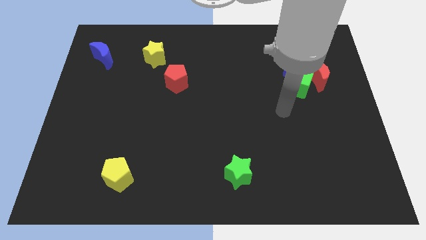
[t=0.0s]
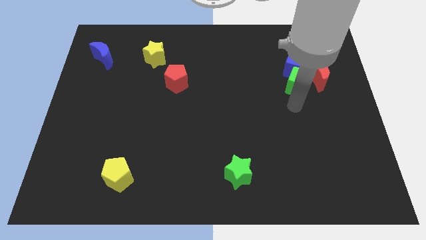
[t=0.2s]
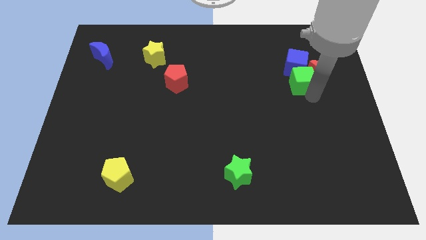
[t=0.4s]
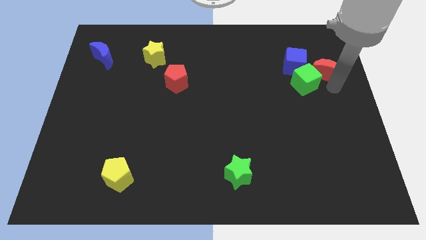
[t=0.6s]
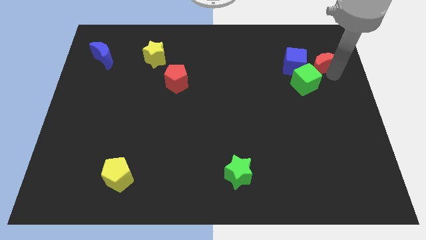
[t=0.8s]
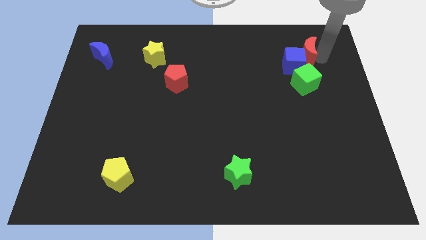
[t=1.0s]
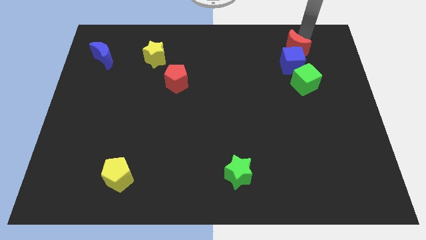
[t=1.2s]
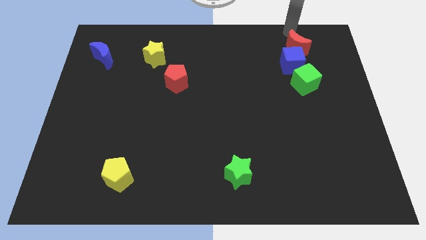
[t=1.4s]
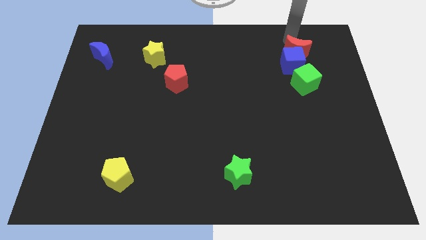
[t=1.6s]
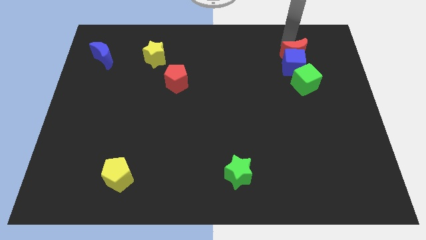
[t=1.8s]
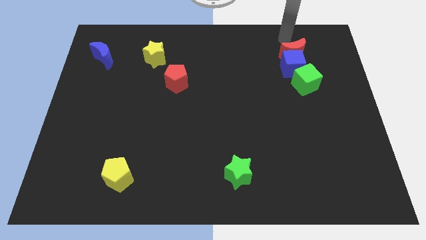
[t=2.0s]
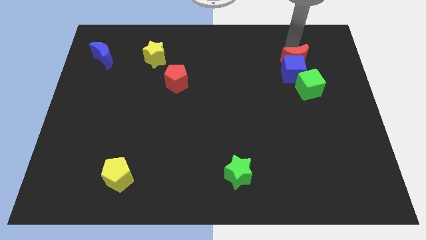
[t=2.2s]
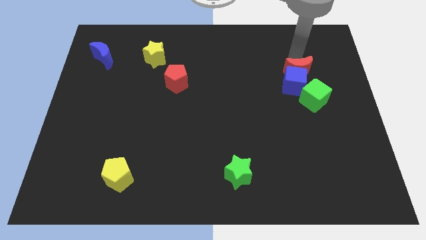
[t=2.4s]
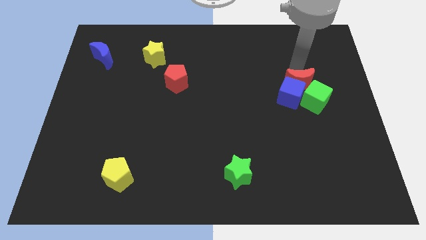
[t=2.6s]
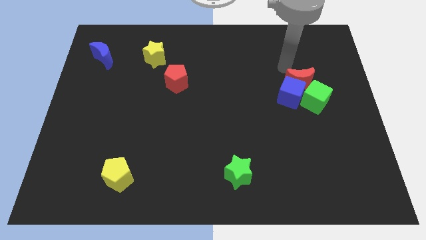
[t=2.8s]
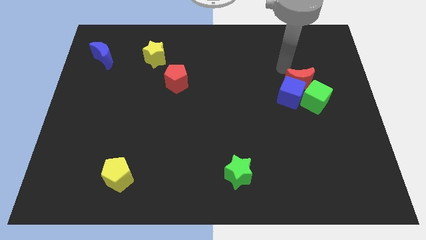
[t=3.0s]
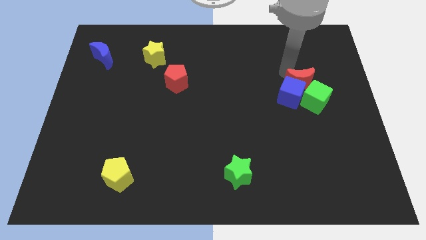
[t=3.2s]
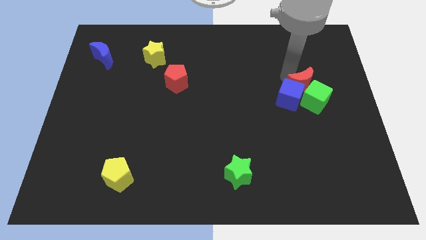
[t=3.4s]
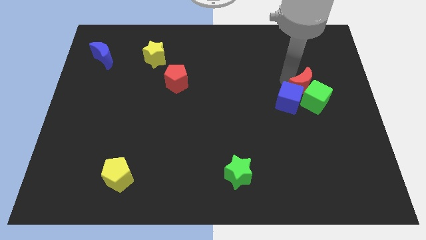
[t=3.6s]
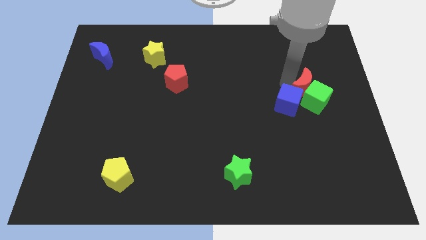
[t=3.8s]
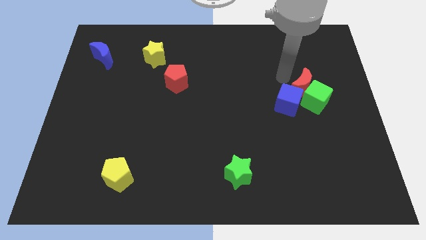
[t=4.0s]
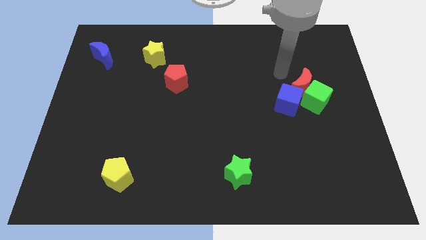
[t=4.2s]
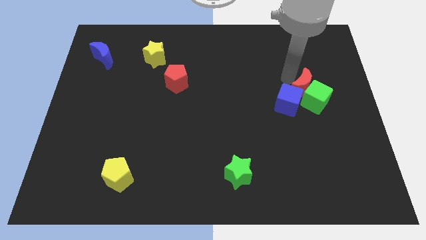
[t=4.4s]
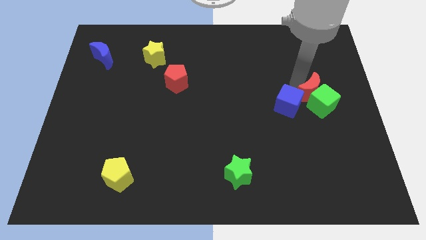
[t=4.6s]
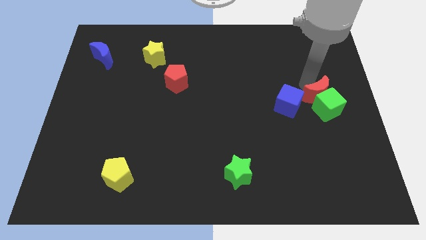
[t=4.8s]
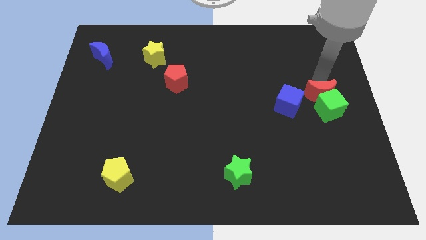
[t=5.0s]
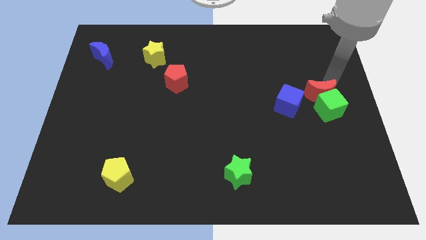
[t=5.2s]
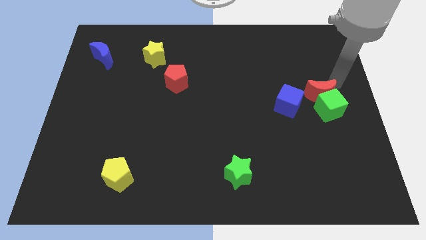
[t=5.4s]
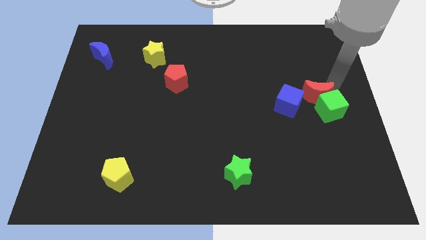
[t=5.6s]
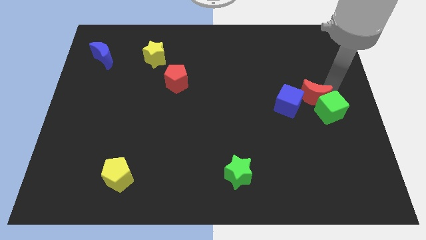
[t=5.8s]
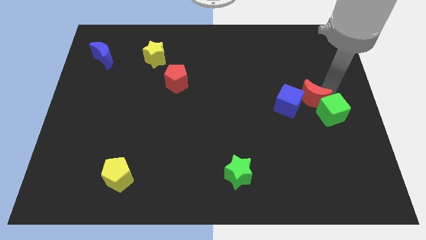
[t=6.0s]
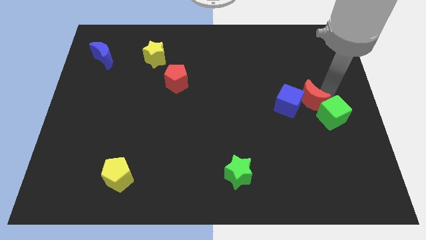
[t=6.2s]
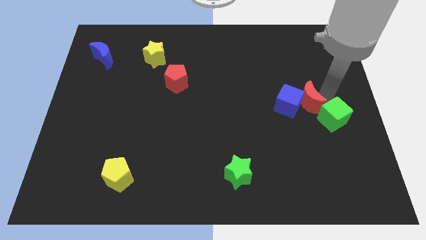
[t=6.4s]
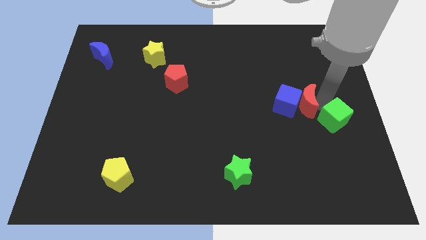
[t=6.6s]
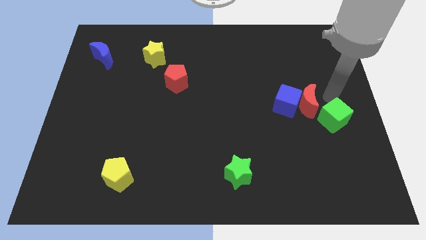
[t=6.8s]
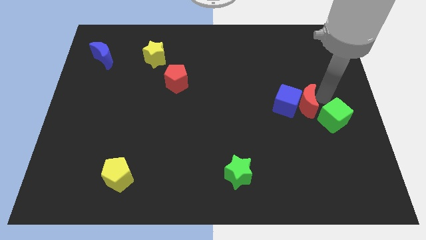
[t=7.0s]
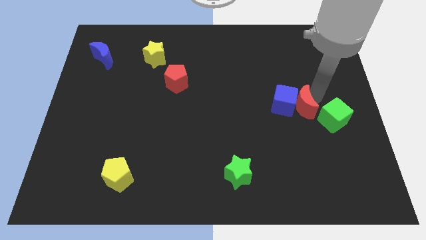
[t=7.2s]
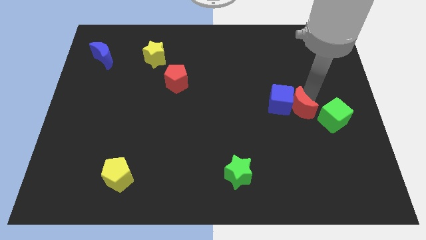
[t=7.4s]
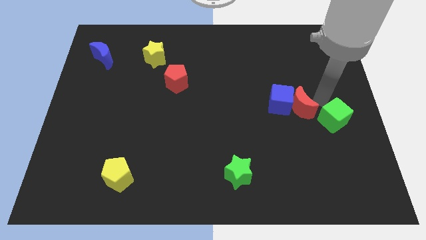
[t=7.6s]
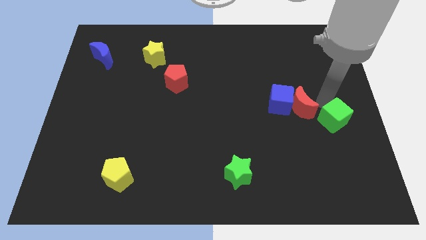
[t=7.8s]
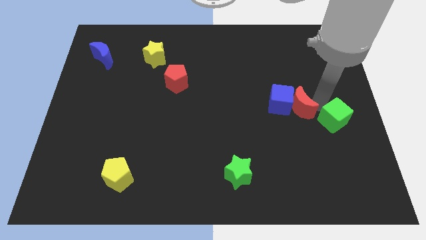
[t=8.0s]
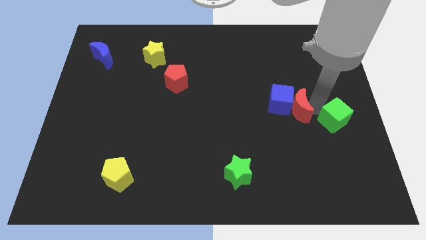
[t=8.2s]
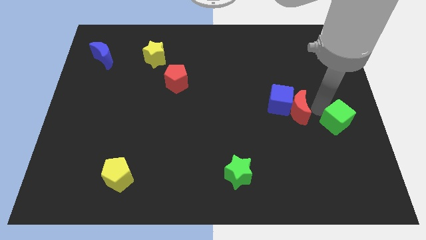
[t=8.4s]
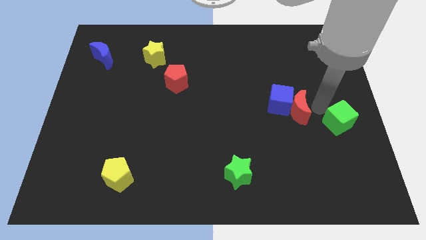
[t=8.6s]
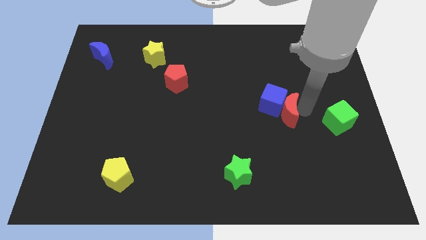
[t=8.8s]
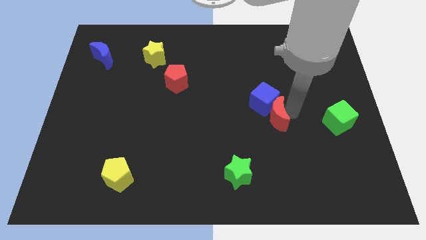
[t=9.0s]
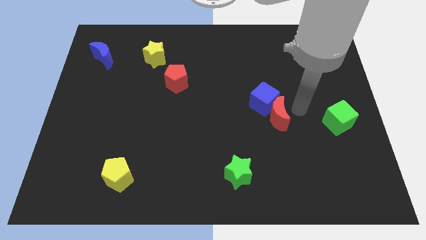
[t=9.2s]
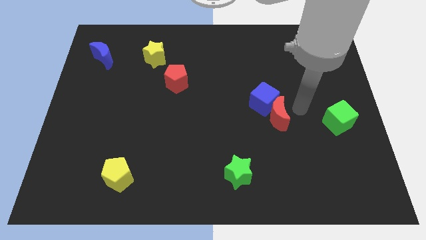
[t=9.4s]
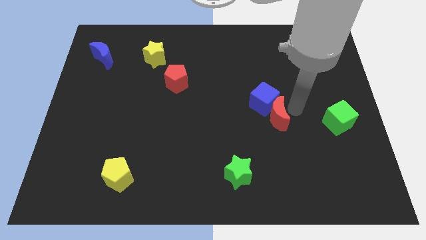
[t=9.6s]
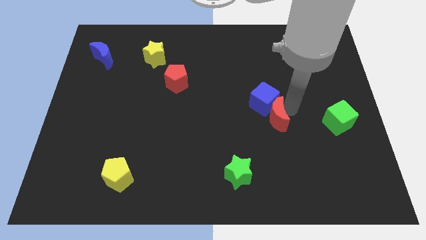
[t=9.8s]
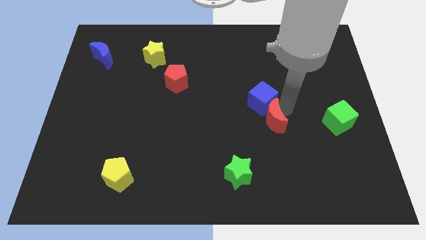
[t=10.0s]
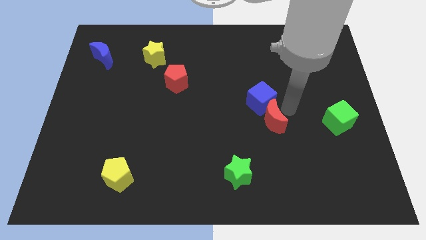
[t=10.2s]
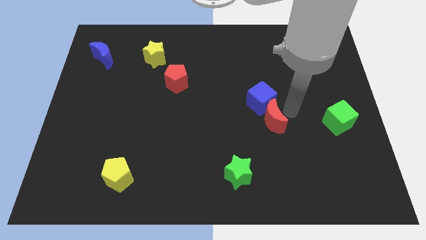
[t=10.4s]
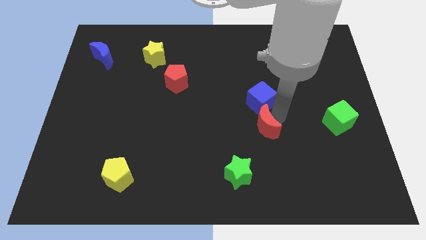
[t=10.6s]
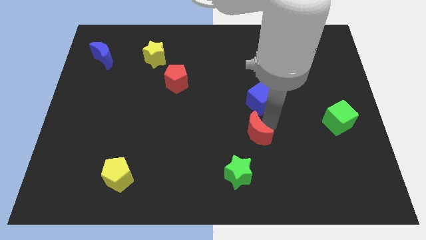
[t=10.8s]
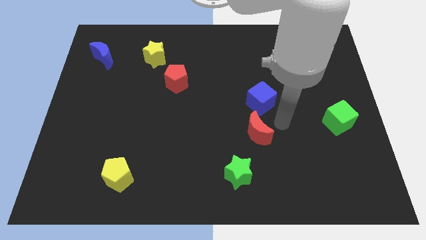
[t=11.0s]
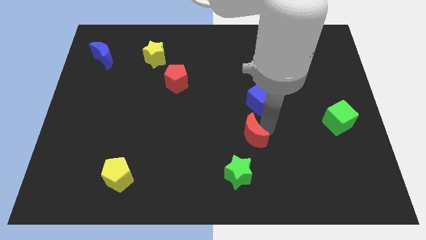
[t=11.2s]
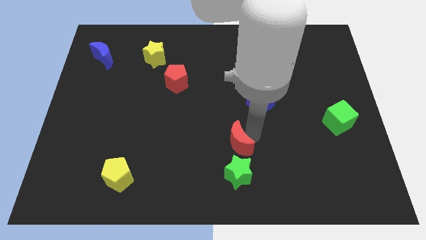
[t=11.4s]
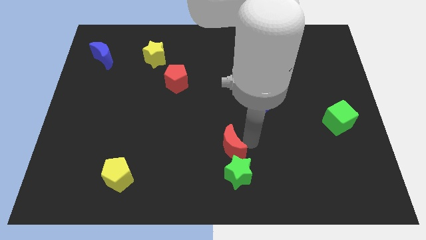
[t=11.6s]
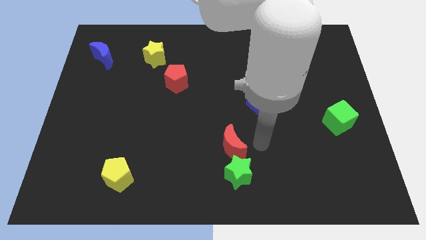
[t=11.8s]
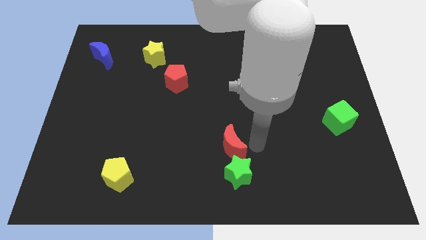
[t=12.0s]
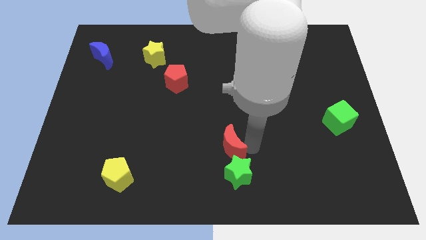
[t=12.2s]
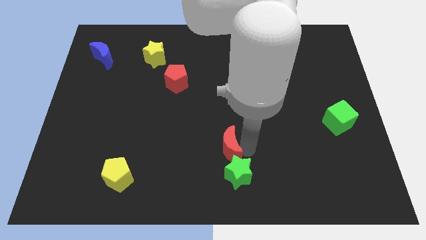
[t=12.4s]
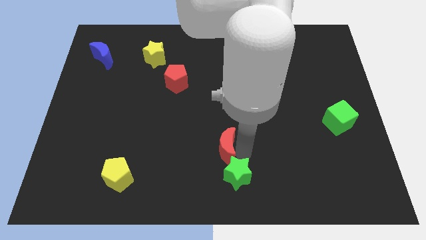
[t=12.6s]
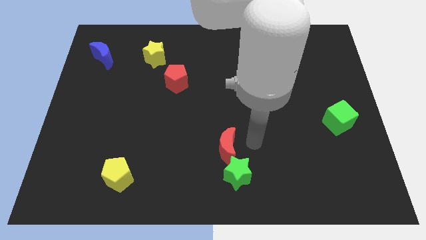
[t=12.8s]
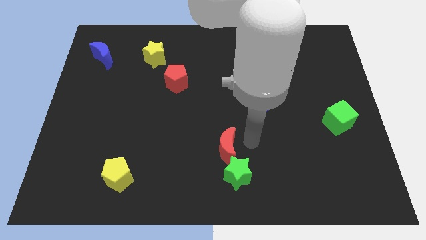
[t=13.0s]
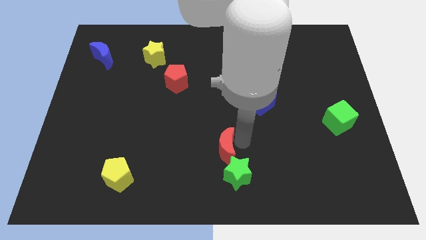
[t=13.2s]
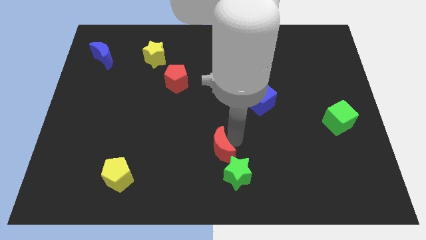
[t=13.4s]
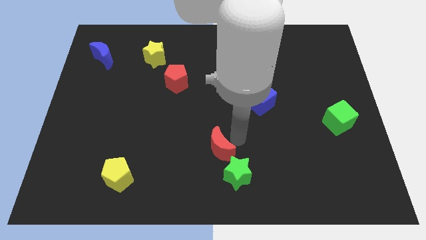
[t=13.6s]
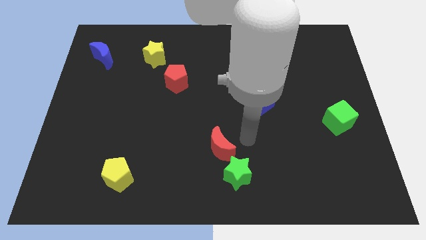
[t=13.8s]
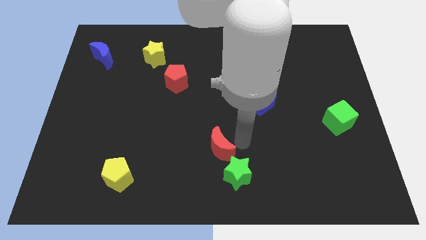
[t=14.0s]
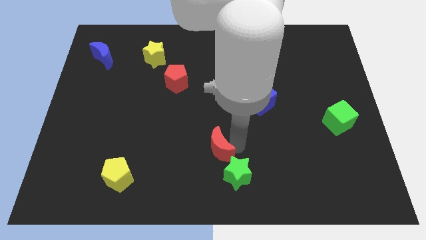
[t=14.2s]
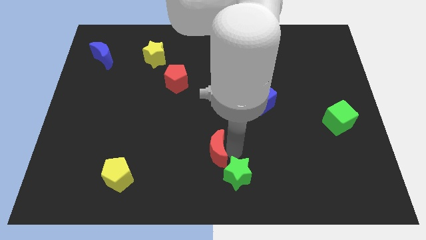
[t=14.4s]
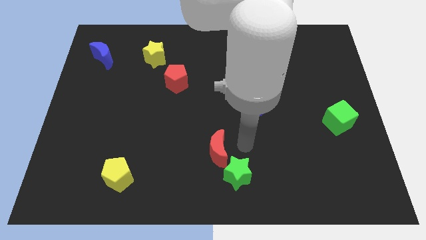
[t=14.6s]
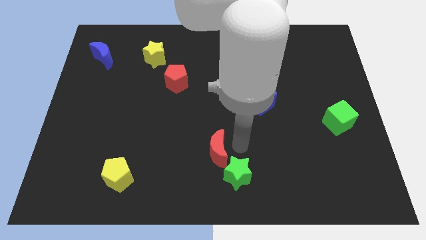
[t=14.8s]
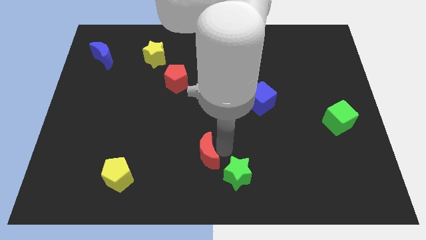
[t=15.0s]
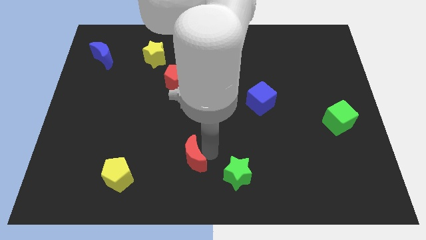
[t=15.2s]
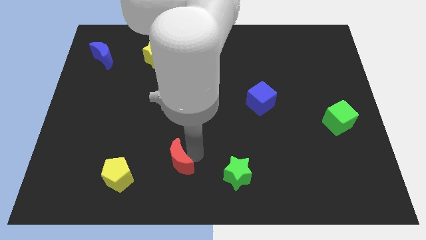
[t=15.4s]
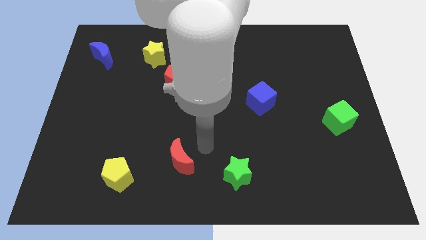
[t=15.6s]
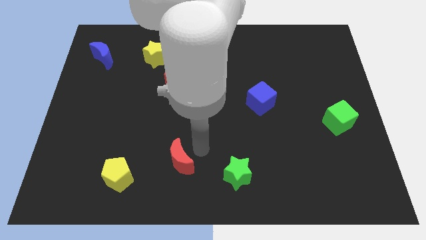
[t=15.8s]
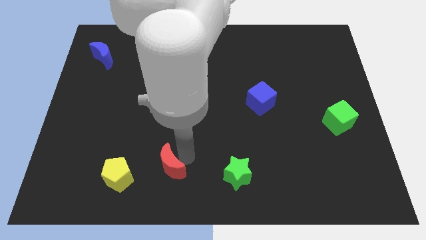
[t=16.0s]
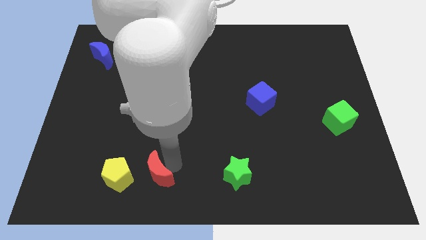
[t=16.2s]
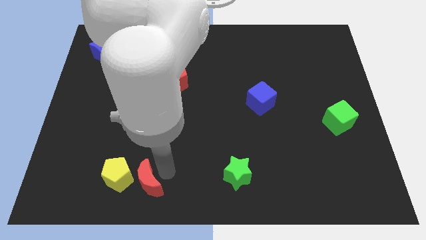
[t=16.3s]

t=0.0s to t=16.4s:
put the red moon next to the yellow pentagon
